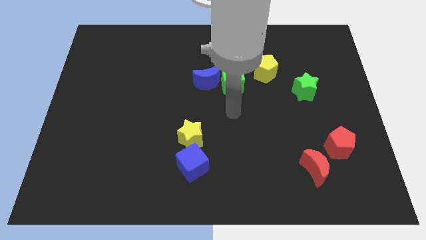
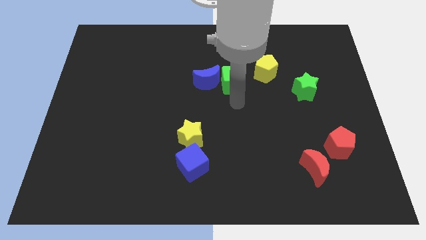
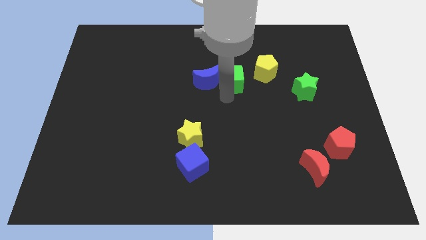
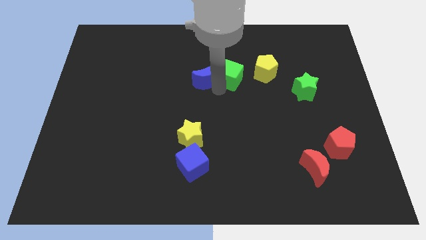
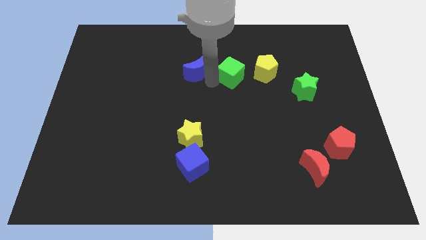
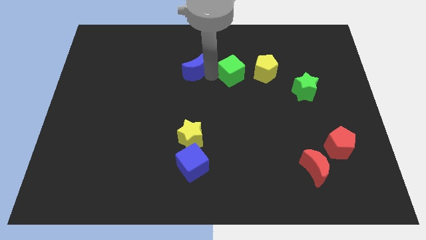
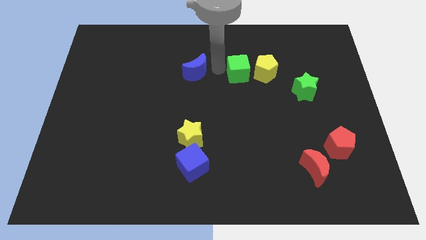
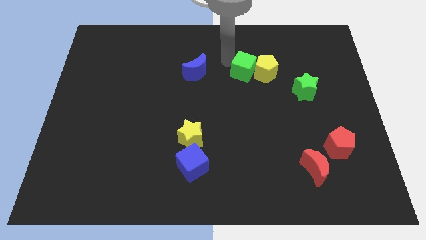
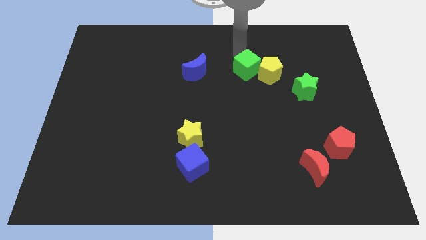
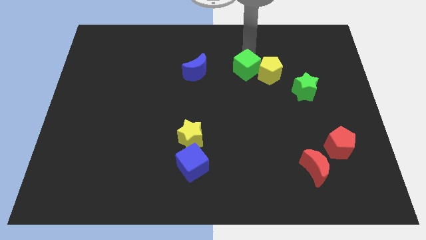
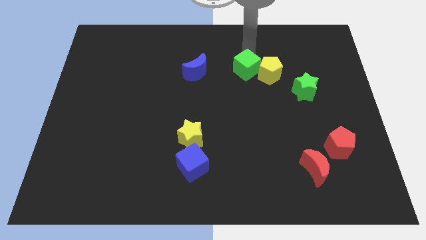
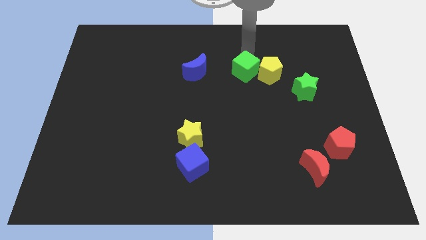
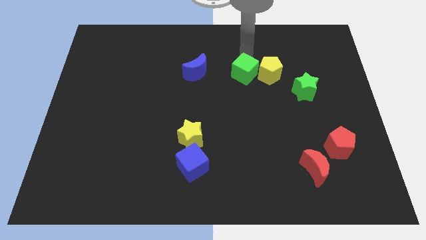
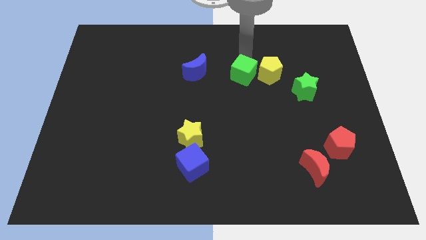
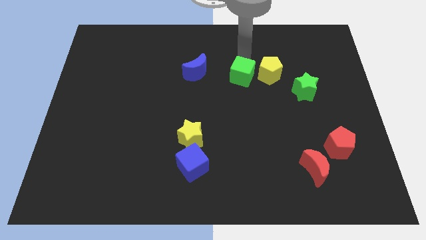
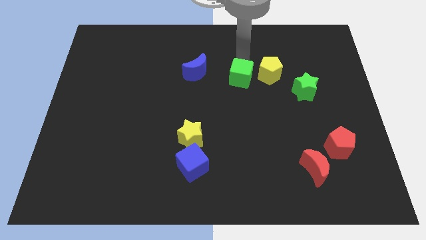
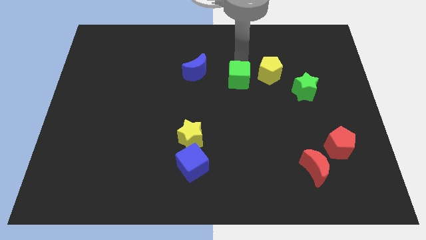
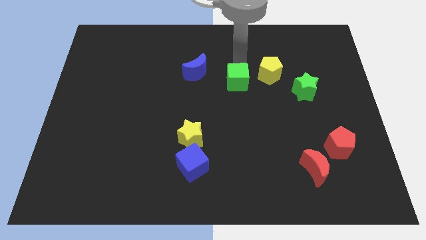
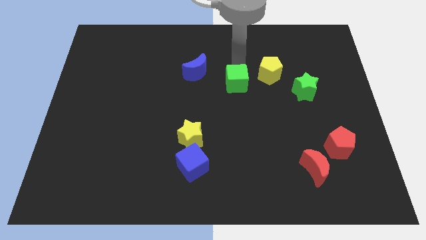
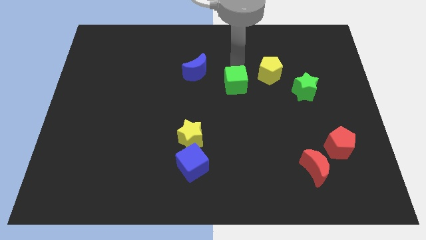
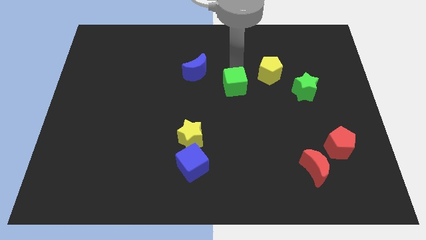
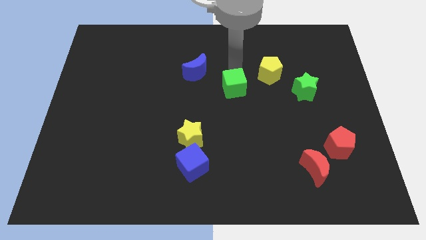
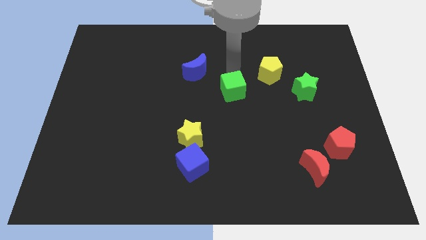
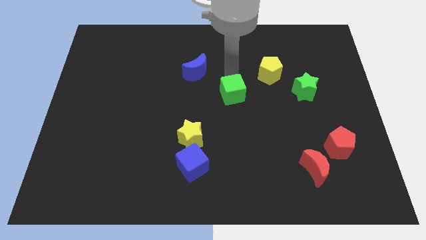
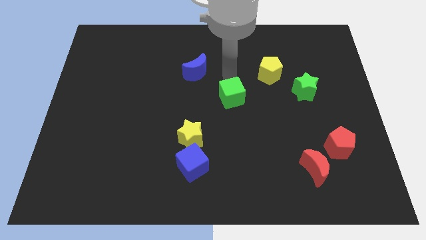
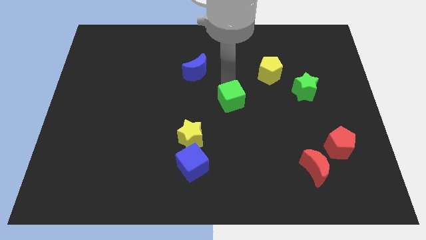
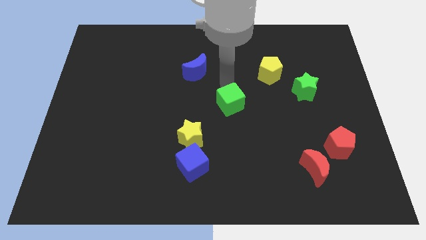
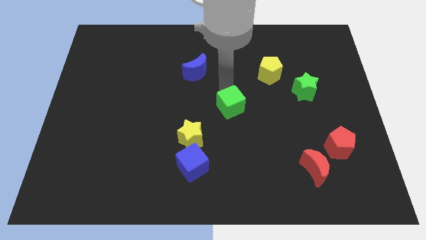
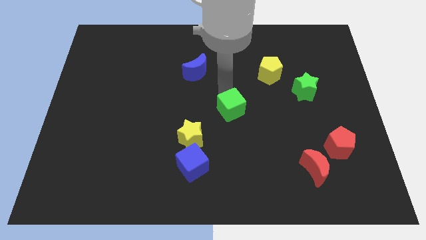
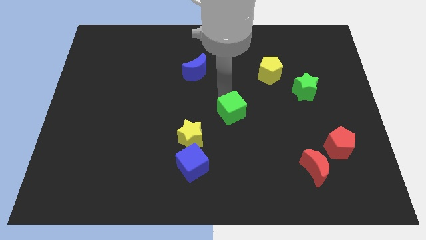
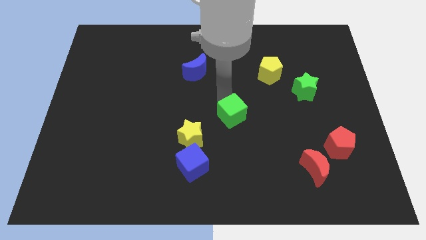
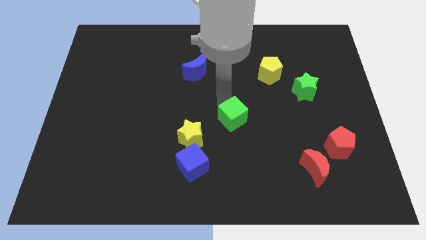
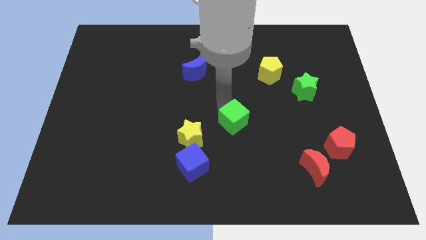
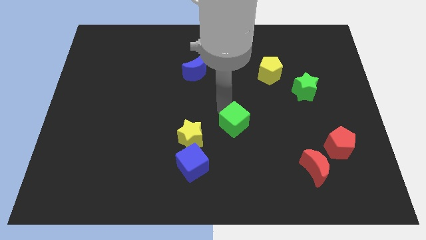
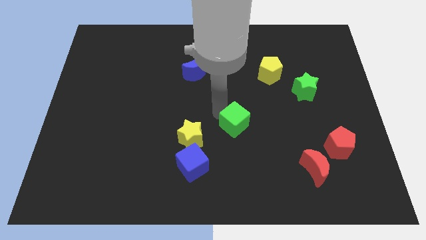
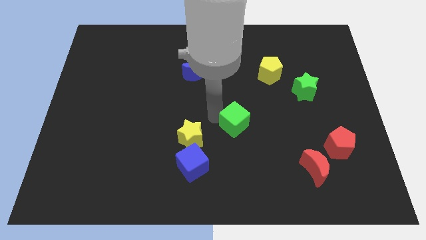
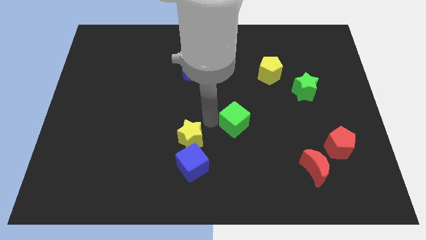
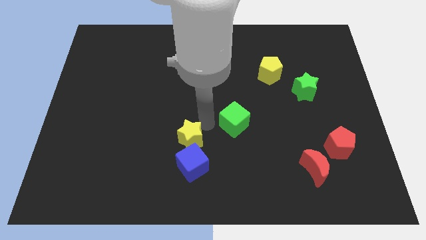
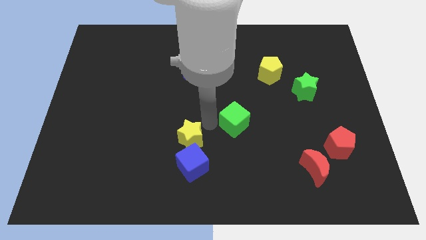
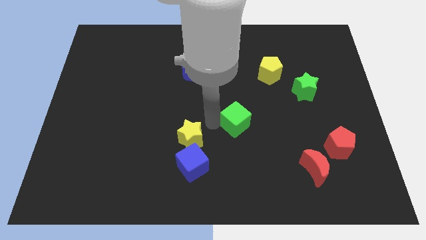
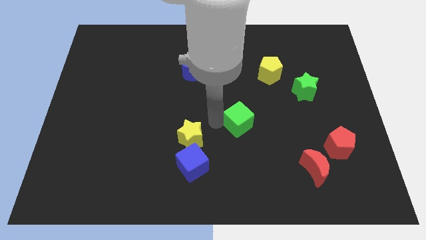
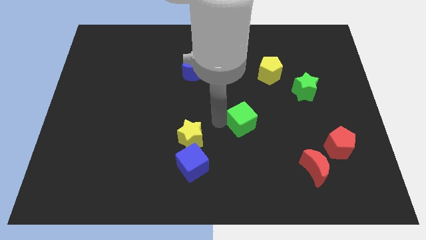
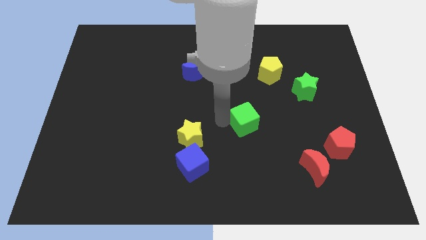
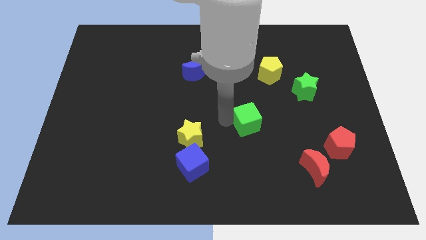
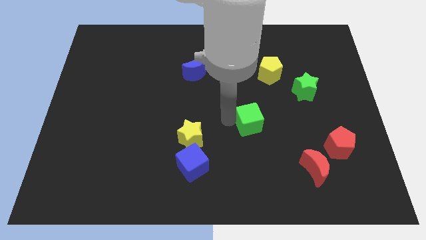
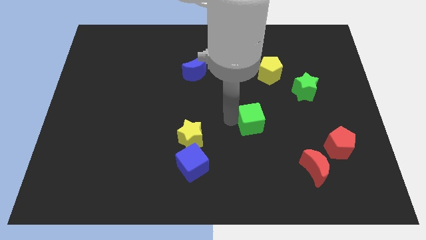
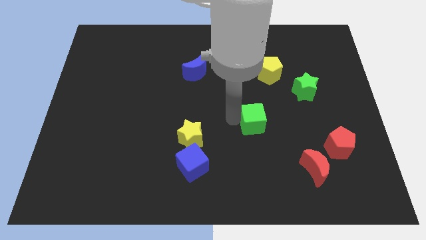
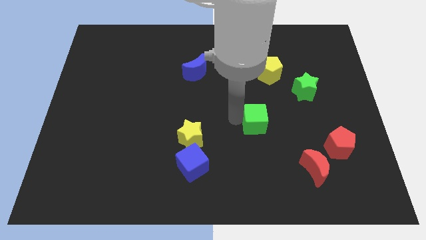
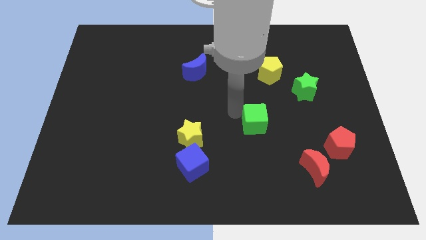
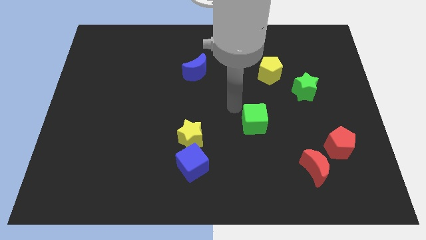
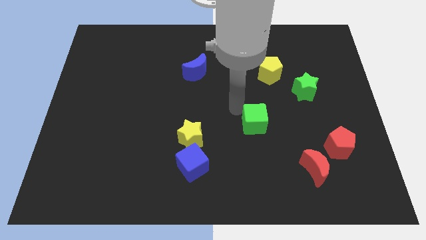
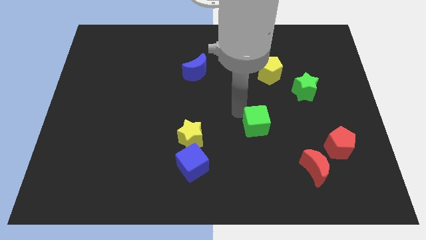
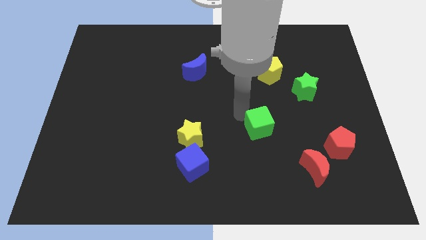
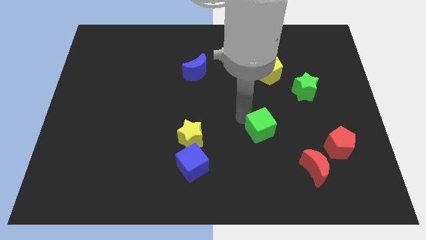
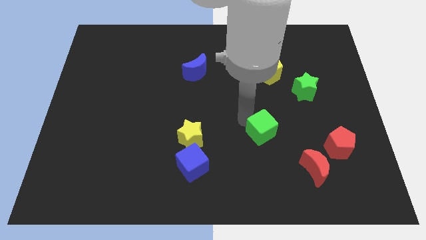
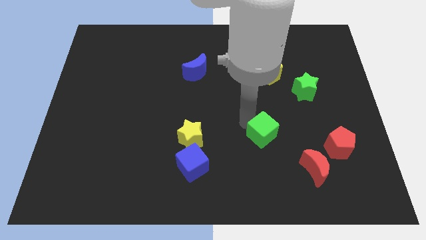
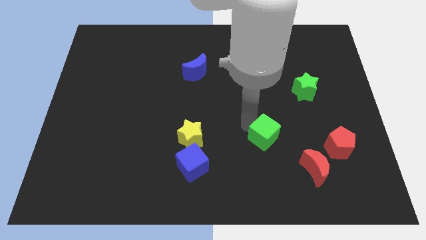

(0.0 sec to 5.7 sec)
put the green cube to the top left side of the red moon

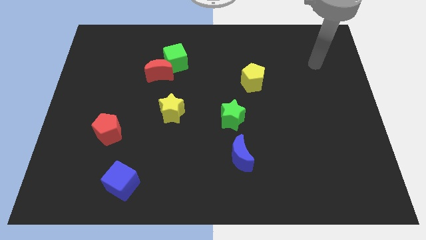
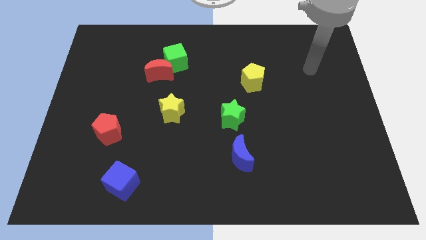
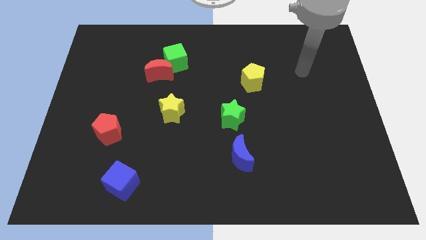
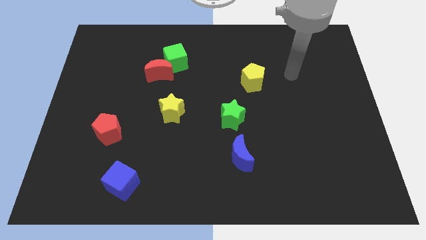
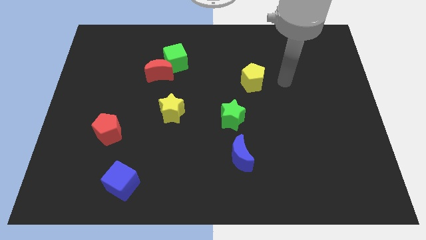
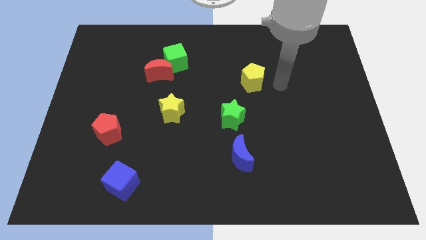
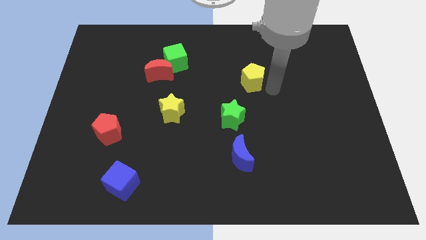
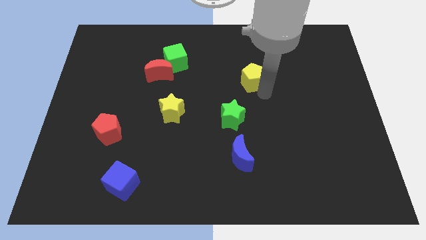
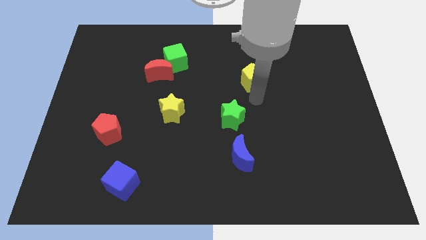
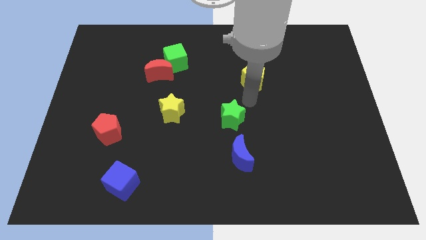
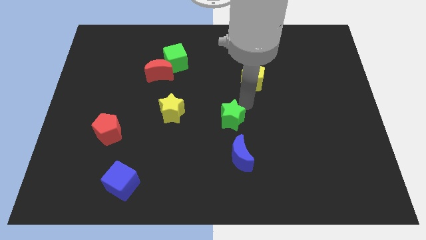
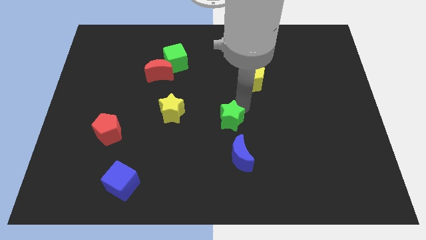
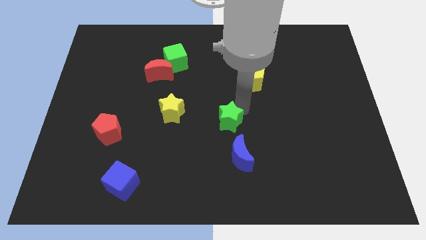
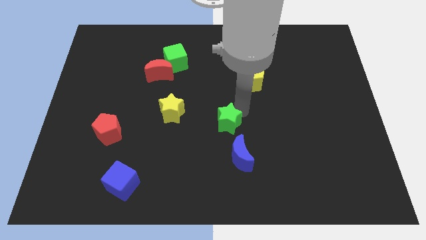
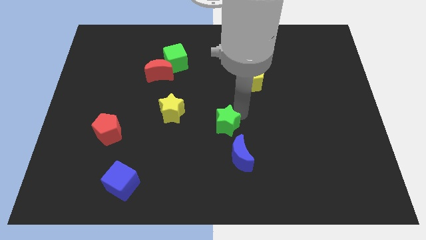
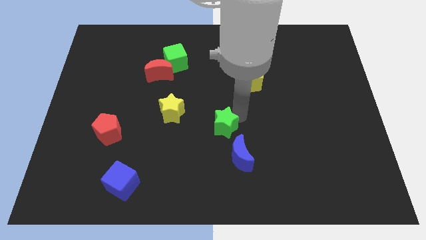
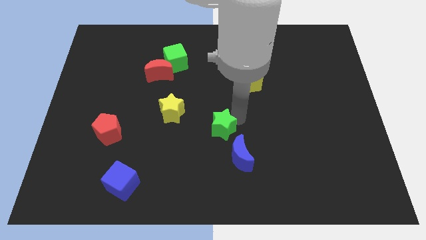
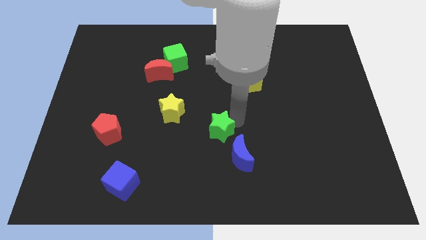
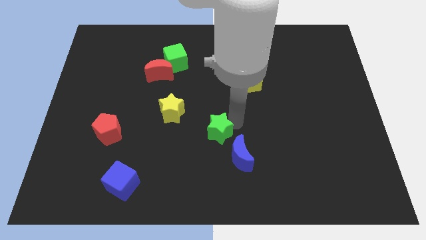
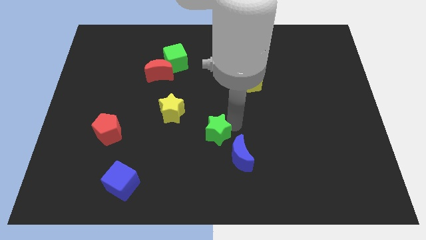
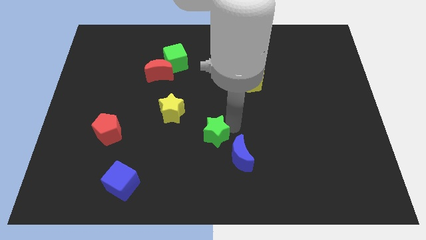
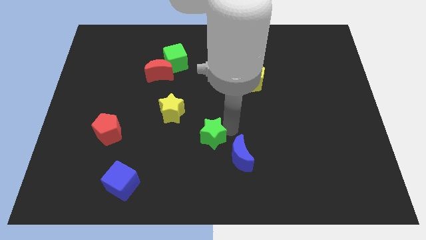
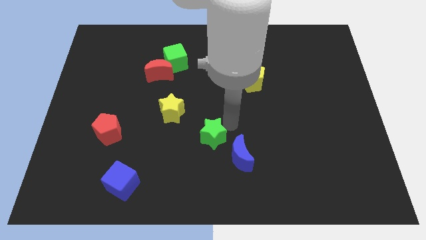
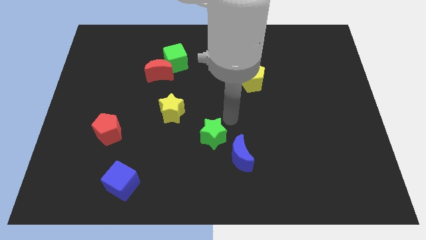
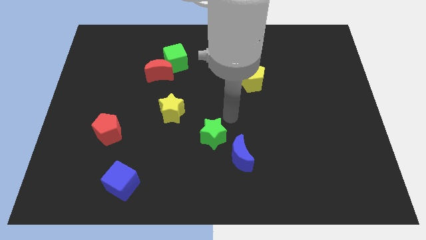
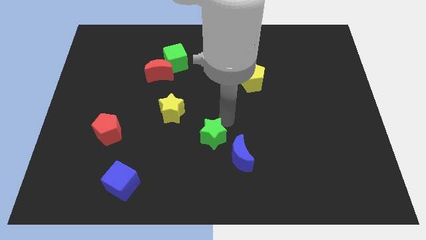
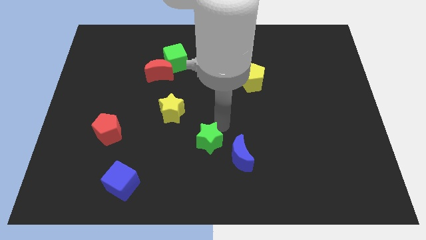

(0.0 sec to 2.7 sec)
push the green star to the left of the blue moon
